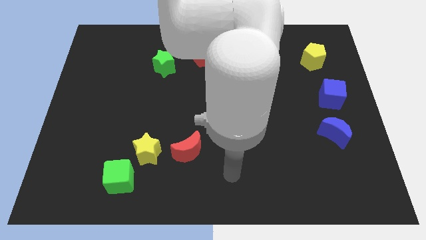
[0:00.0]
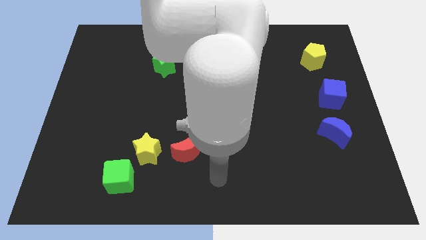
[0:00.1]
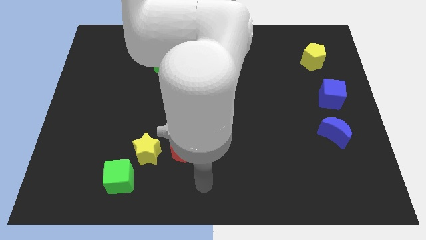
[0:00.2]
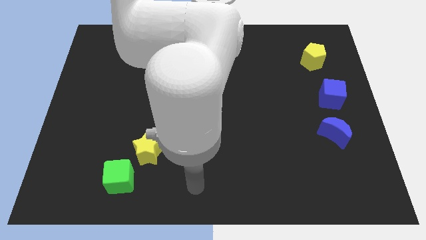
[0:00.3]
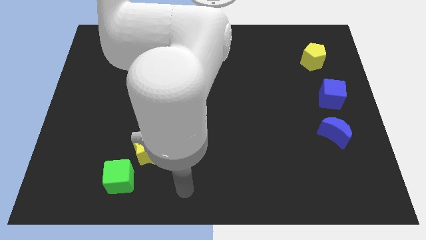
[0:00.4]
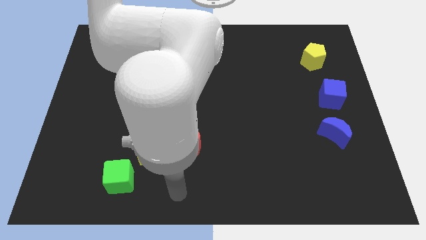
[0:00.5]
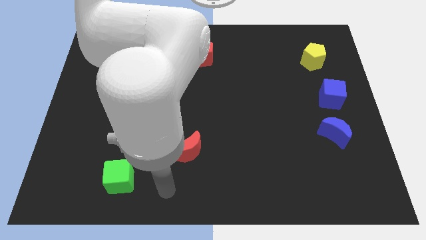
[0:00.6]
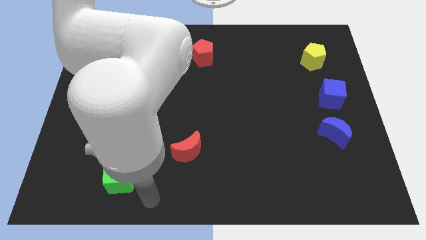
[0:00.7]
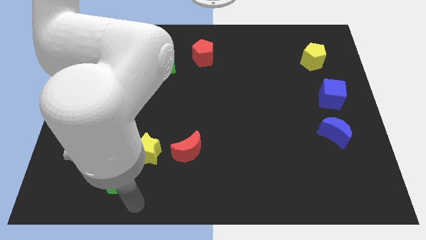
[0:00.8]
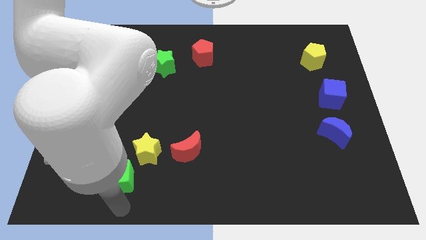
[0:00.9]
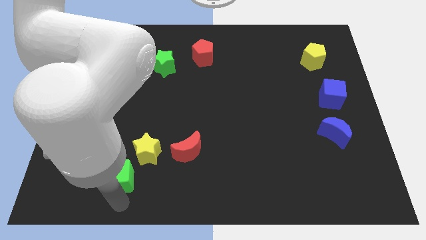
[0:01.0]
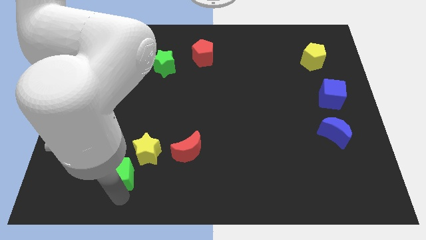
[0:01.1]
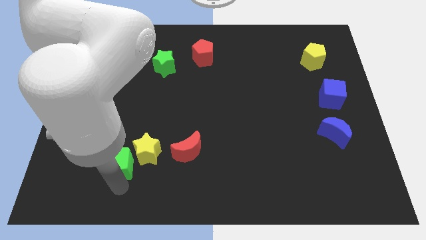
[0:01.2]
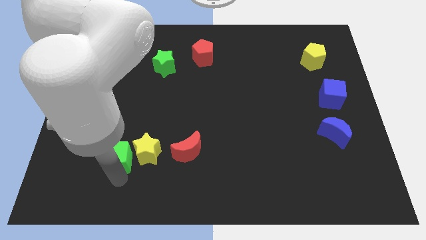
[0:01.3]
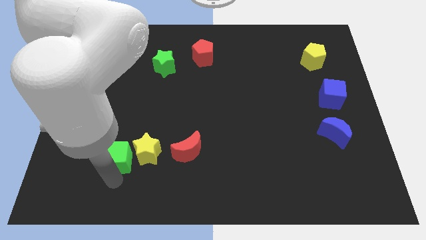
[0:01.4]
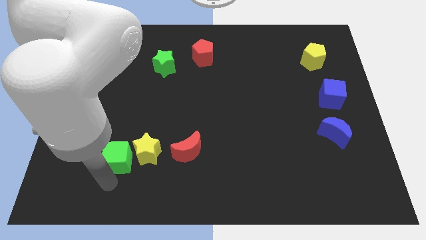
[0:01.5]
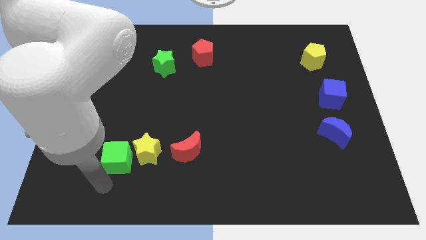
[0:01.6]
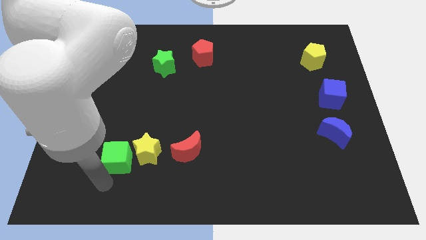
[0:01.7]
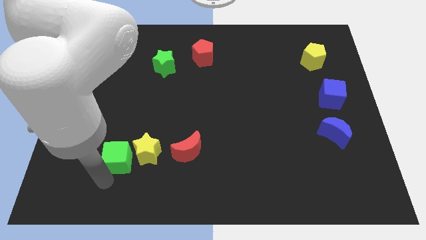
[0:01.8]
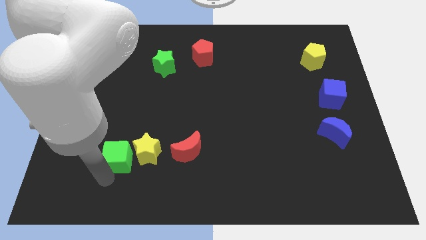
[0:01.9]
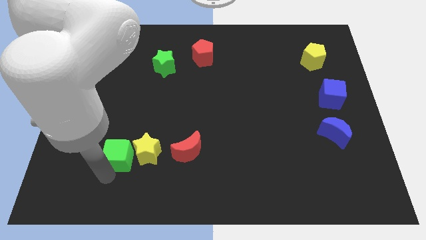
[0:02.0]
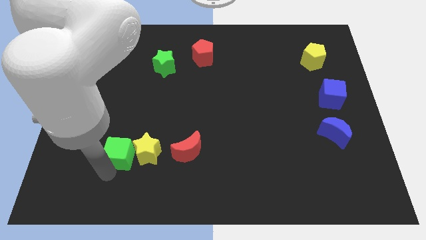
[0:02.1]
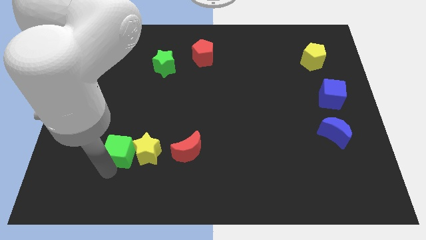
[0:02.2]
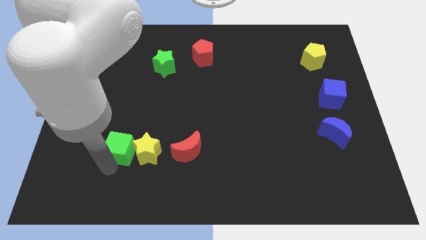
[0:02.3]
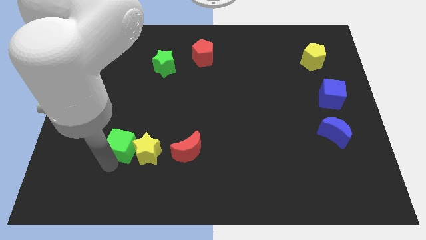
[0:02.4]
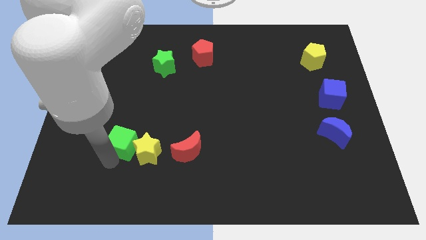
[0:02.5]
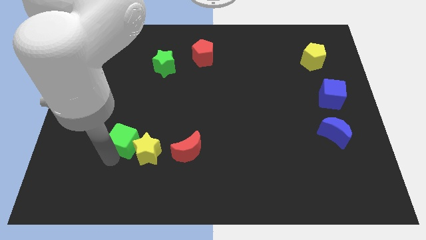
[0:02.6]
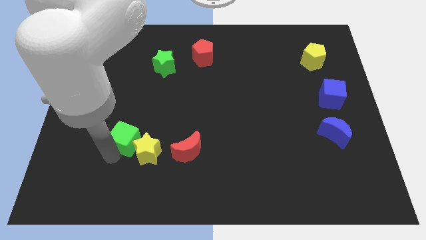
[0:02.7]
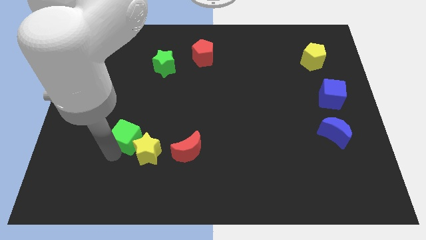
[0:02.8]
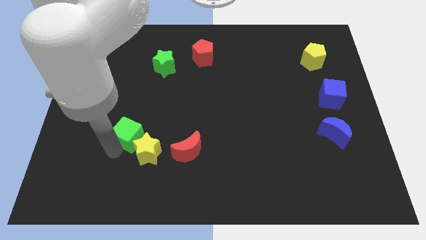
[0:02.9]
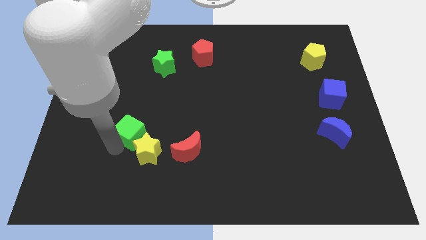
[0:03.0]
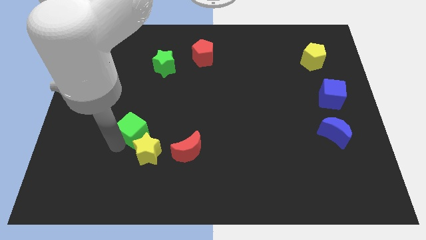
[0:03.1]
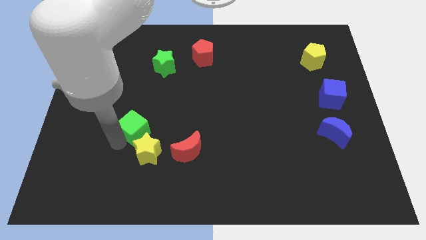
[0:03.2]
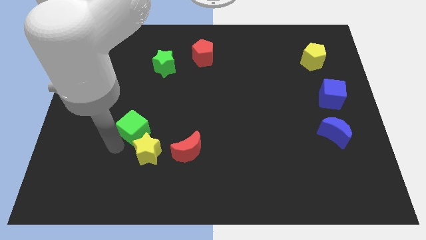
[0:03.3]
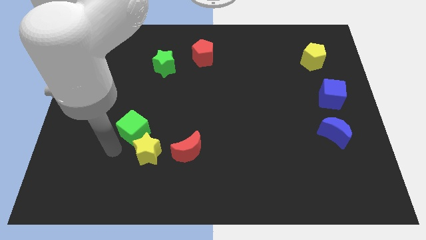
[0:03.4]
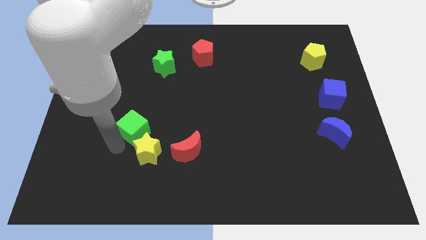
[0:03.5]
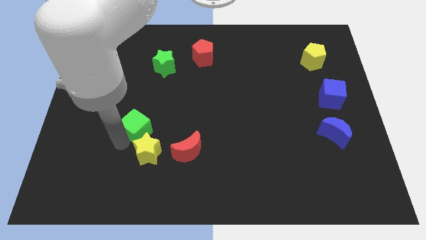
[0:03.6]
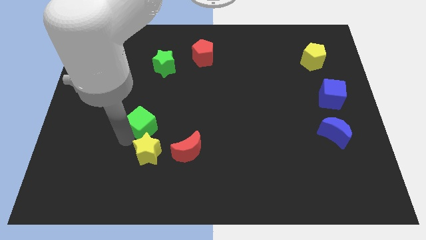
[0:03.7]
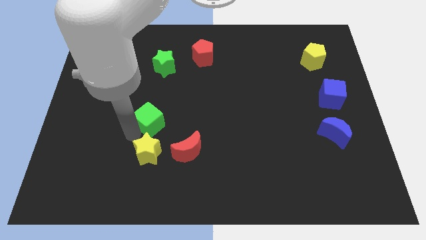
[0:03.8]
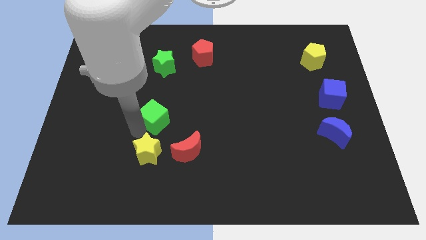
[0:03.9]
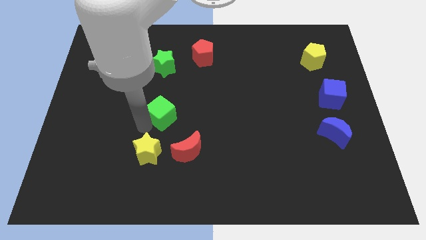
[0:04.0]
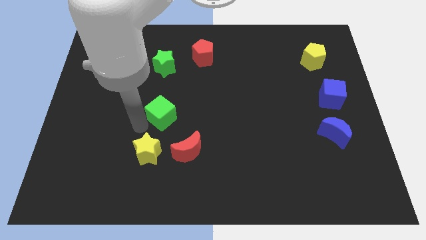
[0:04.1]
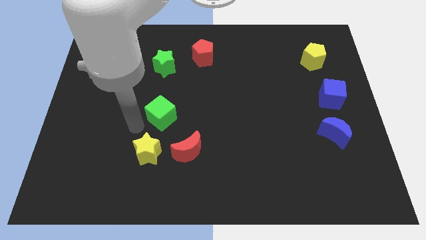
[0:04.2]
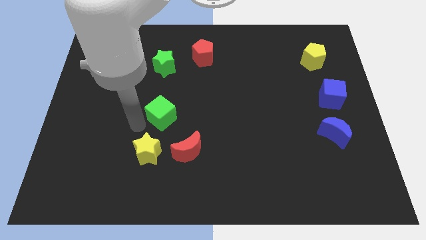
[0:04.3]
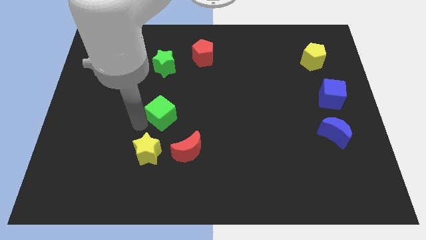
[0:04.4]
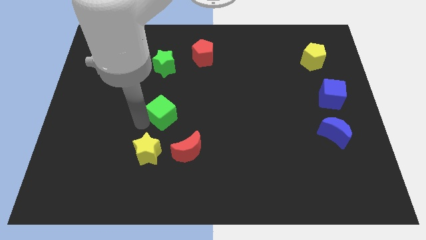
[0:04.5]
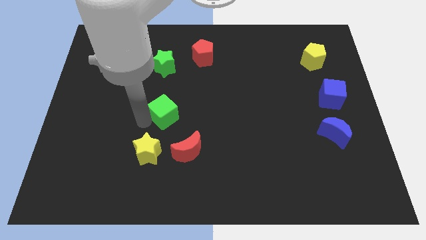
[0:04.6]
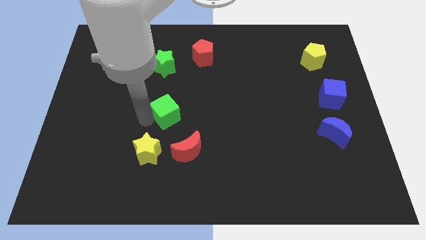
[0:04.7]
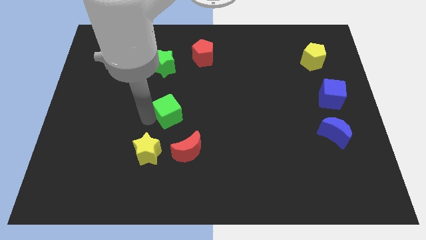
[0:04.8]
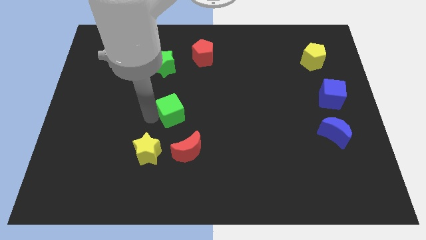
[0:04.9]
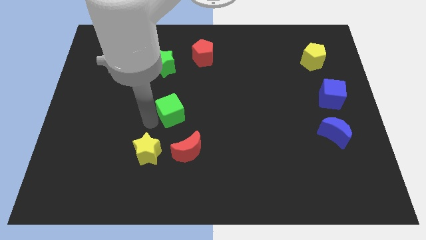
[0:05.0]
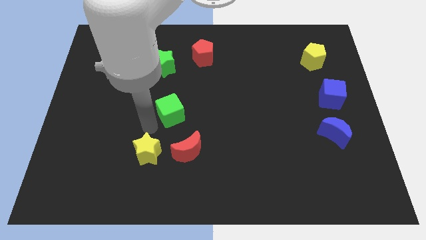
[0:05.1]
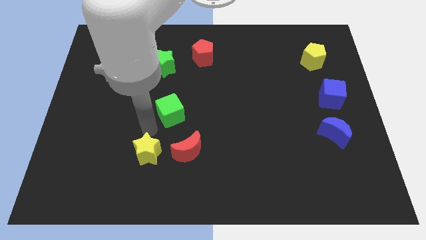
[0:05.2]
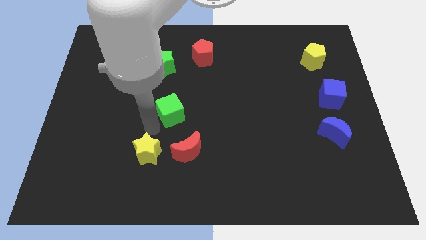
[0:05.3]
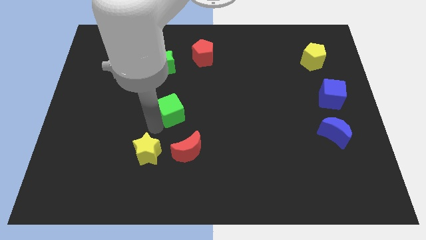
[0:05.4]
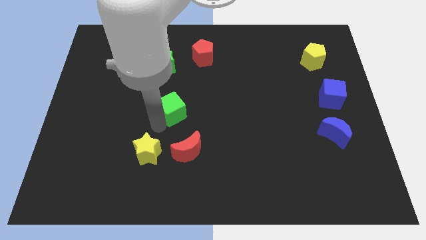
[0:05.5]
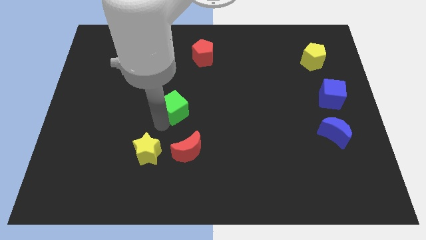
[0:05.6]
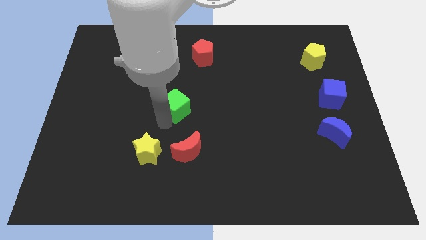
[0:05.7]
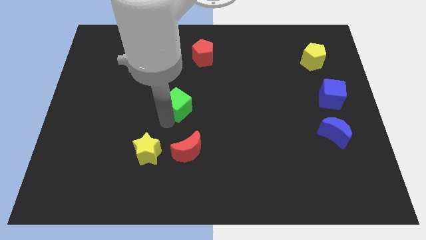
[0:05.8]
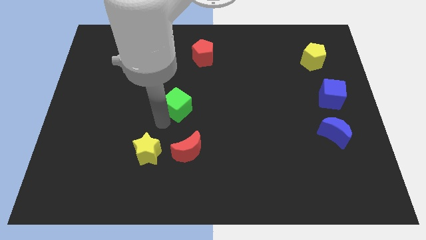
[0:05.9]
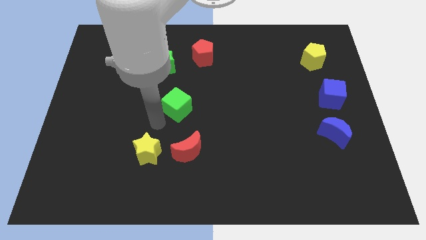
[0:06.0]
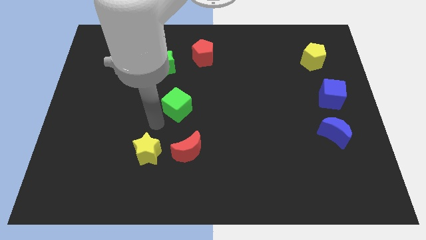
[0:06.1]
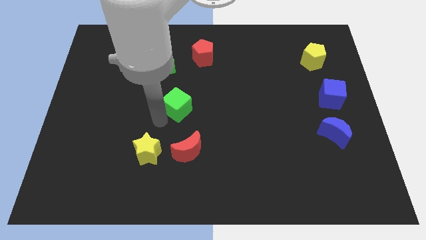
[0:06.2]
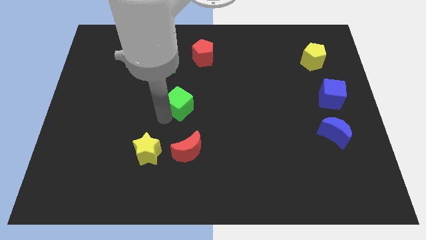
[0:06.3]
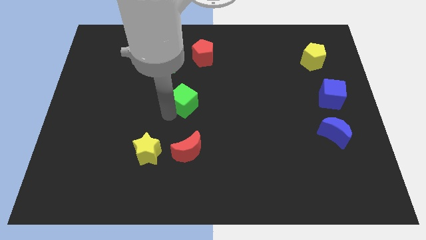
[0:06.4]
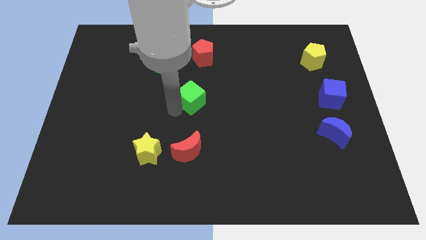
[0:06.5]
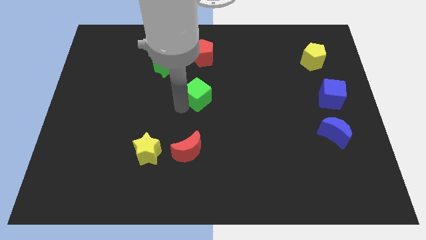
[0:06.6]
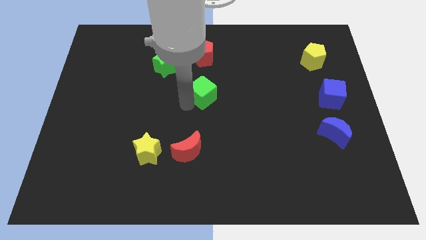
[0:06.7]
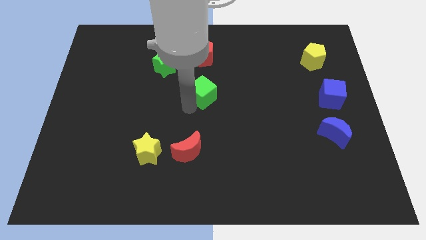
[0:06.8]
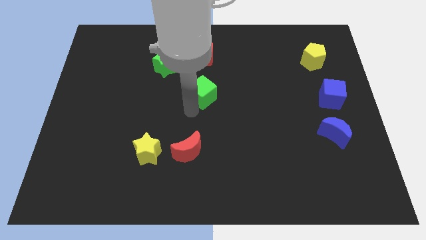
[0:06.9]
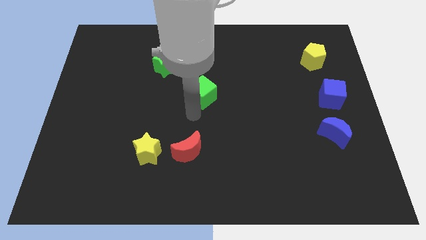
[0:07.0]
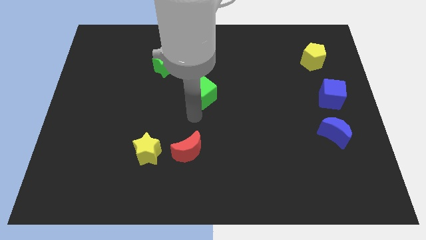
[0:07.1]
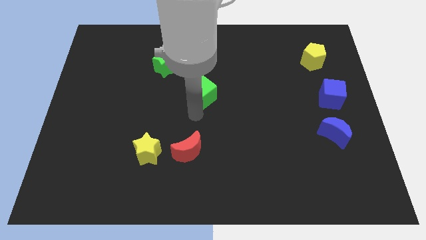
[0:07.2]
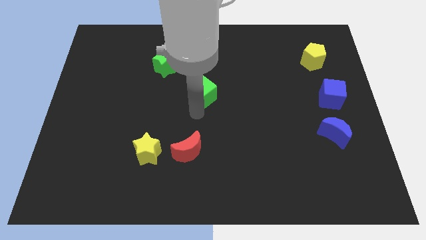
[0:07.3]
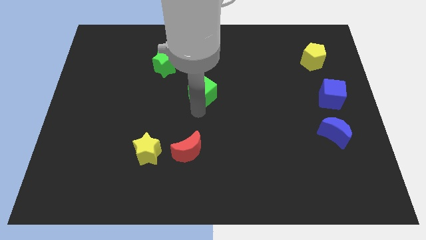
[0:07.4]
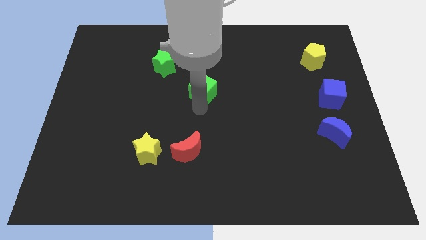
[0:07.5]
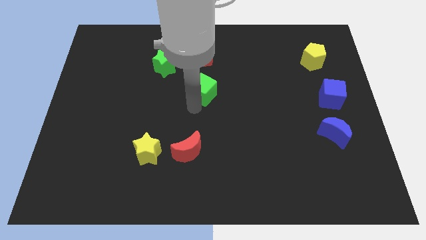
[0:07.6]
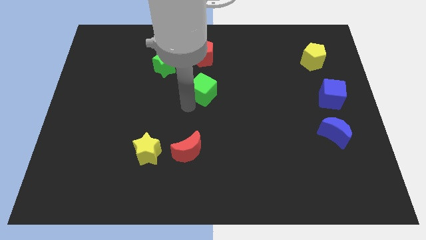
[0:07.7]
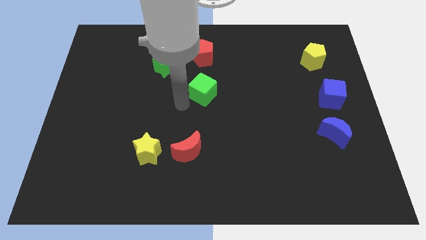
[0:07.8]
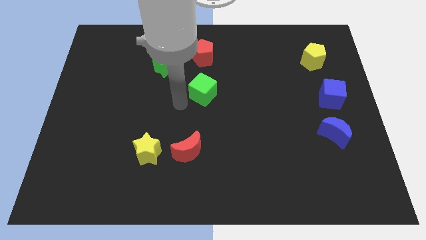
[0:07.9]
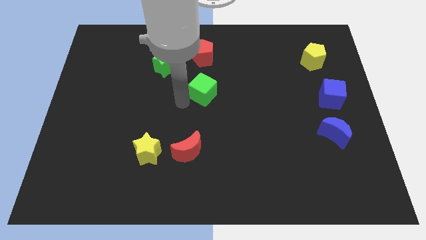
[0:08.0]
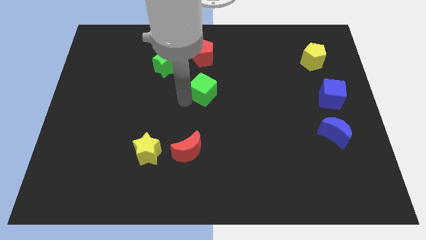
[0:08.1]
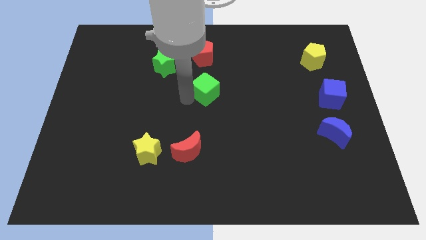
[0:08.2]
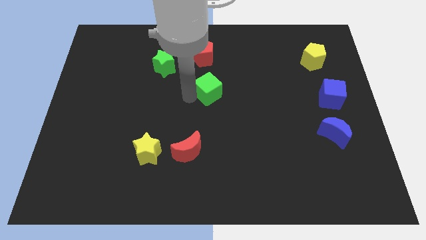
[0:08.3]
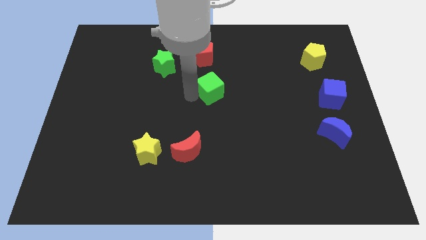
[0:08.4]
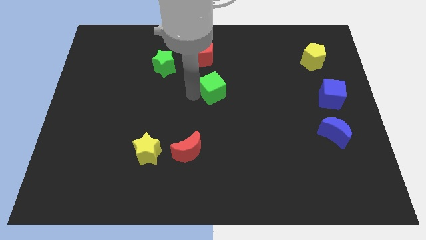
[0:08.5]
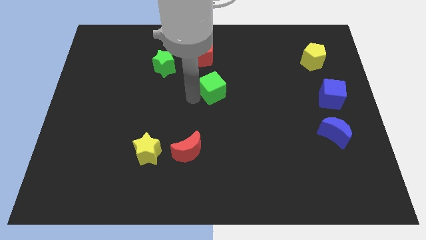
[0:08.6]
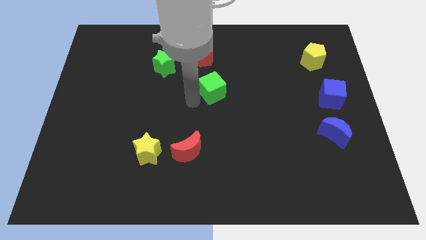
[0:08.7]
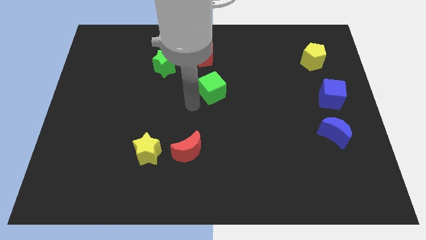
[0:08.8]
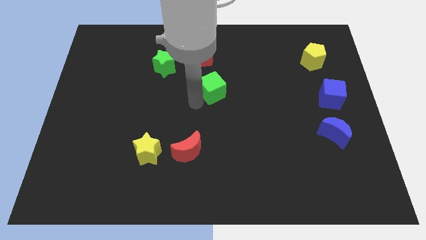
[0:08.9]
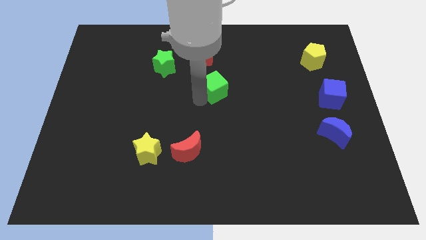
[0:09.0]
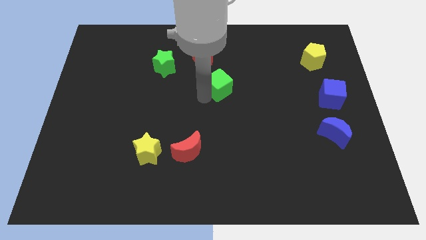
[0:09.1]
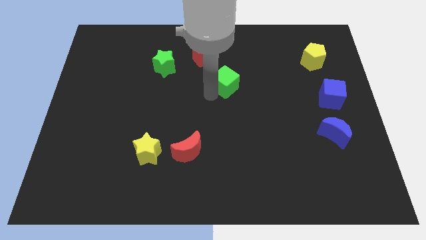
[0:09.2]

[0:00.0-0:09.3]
slide the green cube to the bottom right of the red pentagon
